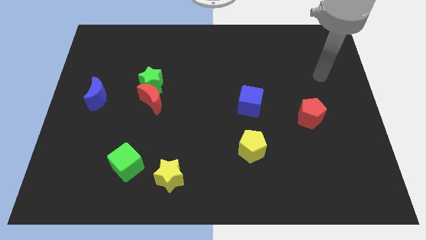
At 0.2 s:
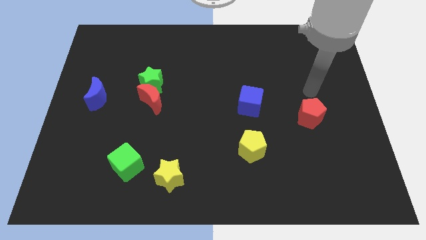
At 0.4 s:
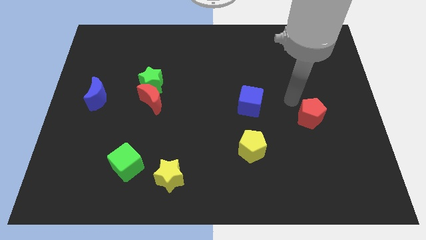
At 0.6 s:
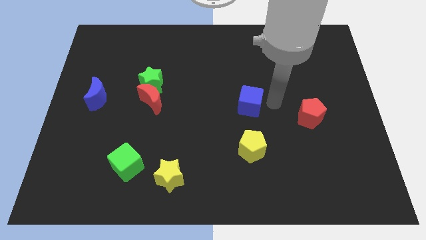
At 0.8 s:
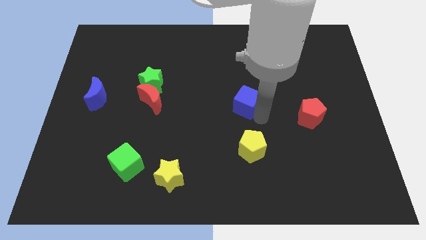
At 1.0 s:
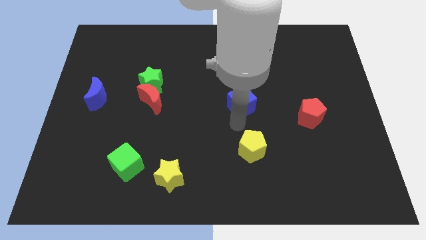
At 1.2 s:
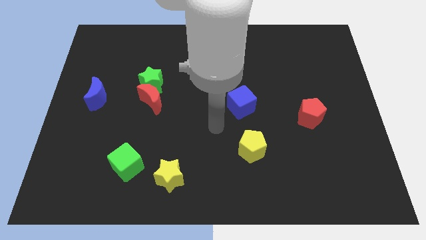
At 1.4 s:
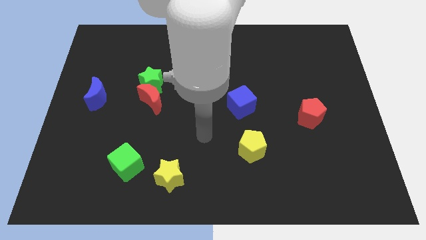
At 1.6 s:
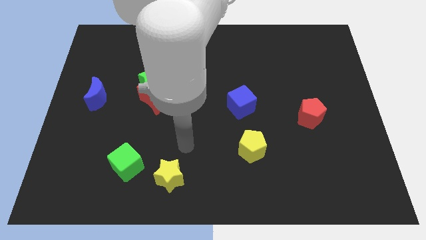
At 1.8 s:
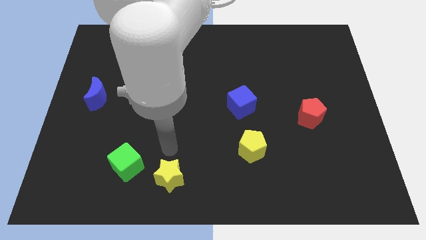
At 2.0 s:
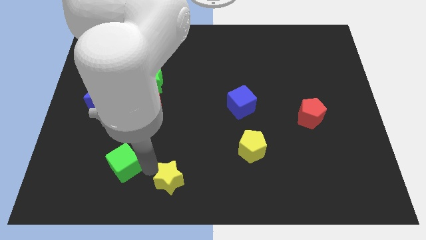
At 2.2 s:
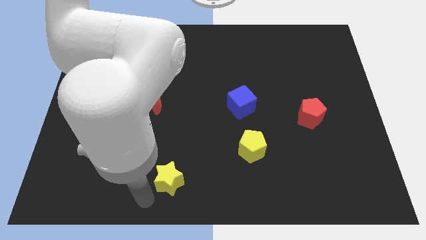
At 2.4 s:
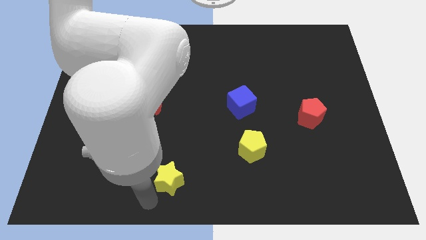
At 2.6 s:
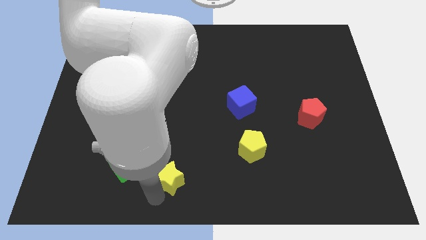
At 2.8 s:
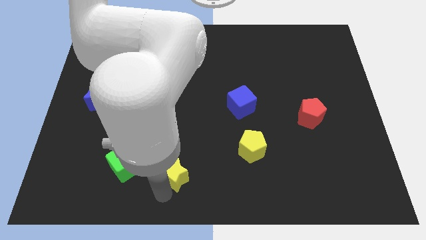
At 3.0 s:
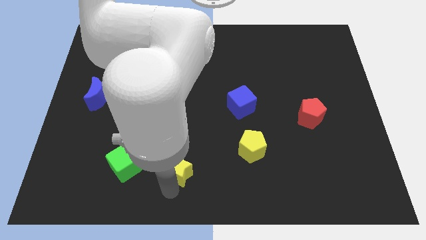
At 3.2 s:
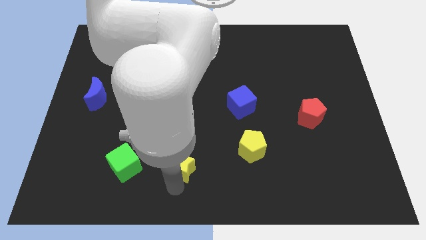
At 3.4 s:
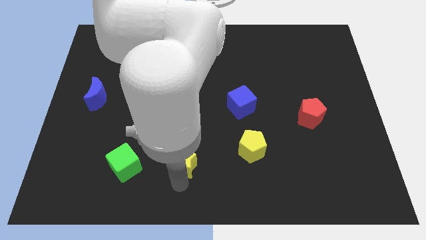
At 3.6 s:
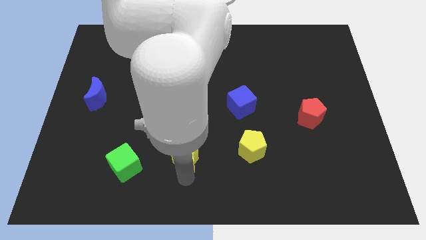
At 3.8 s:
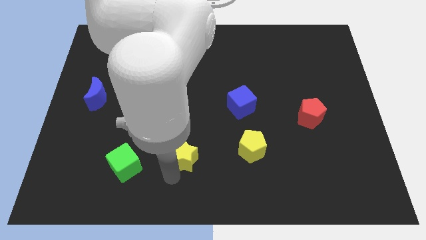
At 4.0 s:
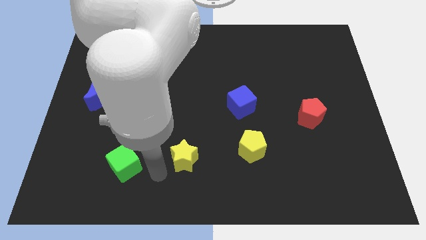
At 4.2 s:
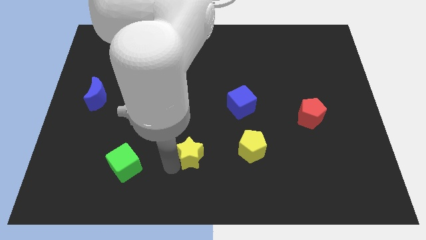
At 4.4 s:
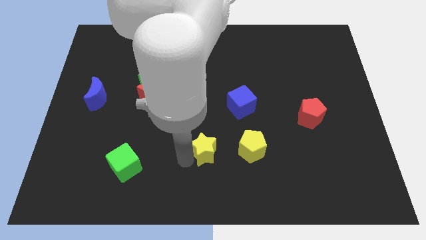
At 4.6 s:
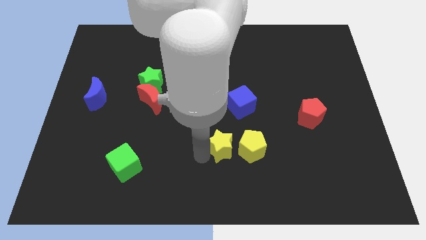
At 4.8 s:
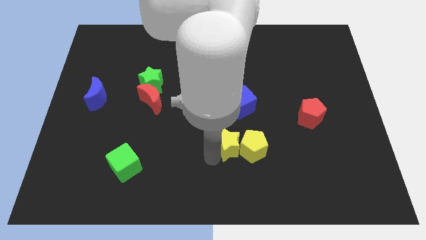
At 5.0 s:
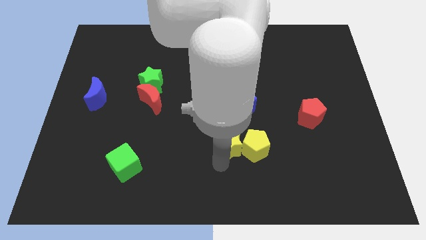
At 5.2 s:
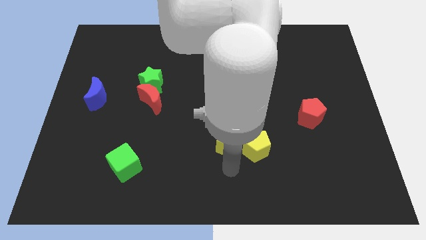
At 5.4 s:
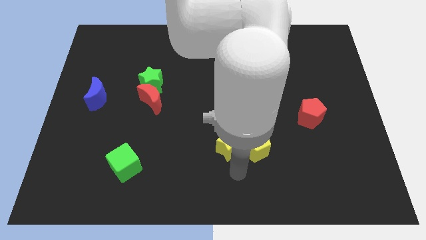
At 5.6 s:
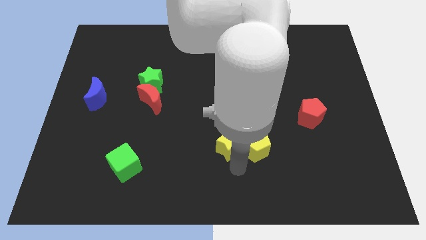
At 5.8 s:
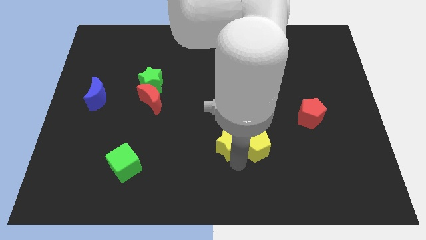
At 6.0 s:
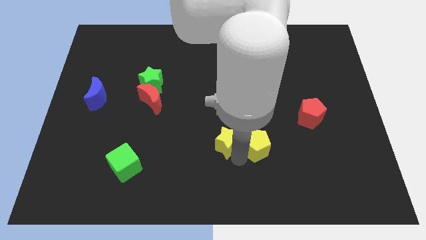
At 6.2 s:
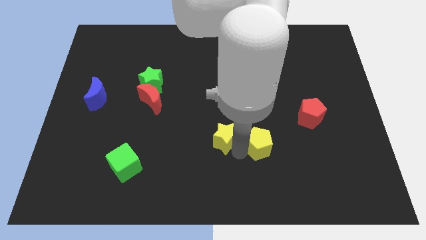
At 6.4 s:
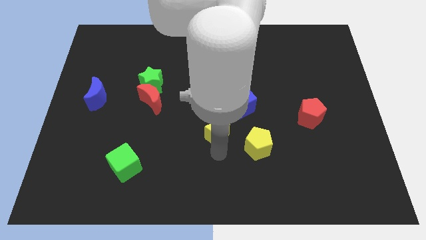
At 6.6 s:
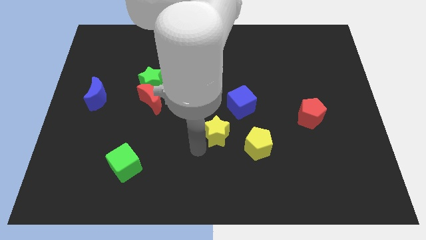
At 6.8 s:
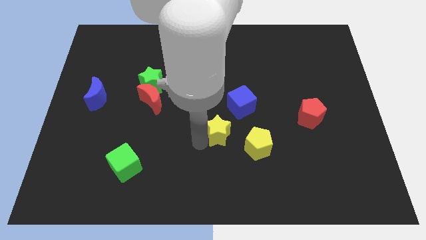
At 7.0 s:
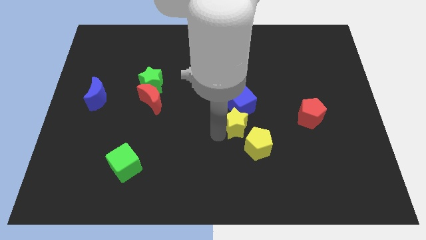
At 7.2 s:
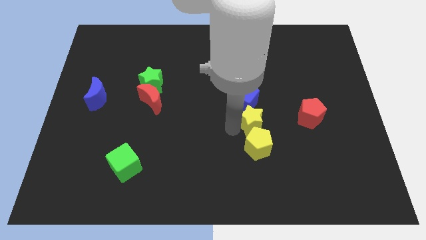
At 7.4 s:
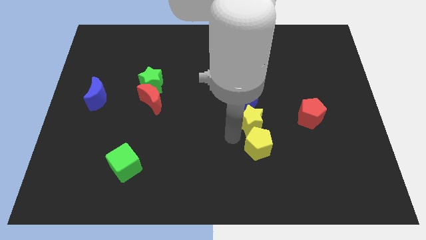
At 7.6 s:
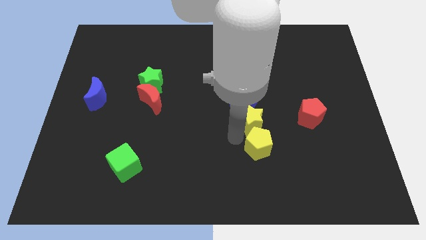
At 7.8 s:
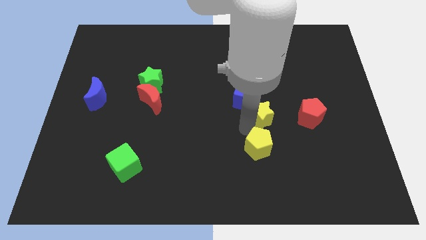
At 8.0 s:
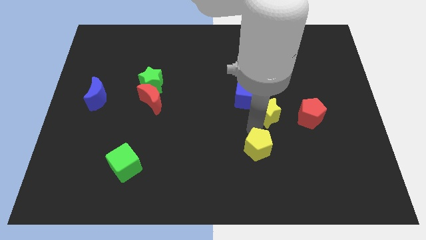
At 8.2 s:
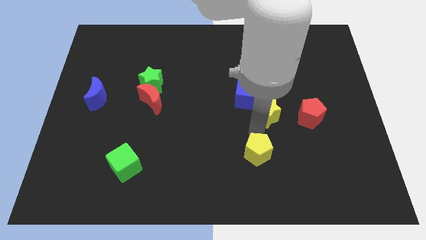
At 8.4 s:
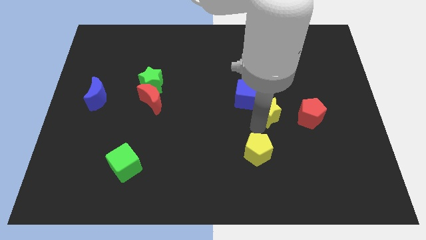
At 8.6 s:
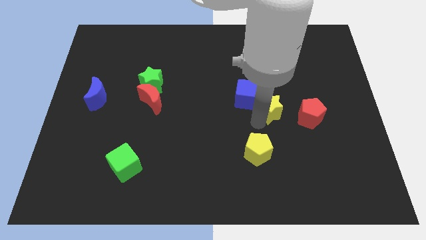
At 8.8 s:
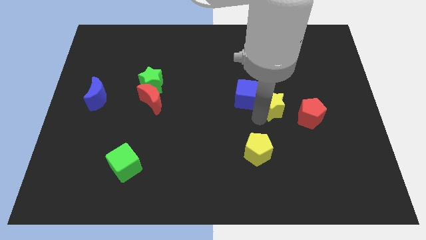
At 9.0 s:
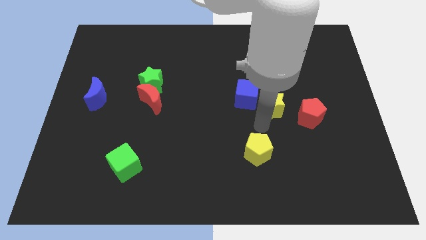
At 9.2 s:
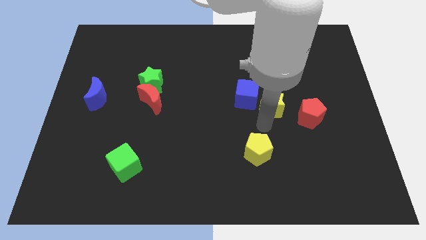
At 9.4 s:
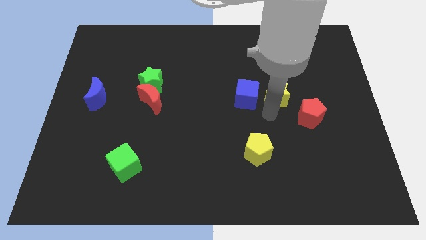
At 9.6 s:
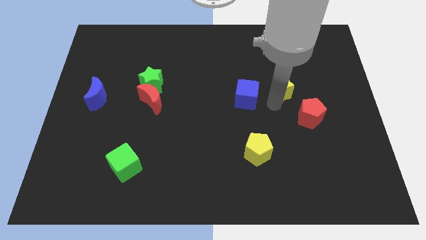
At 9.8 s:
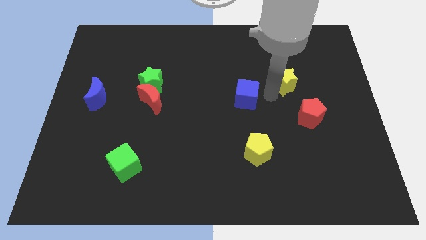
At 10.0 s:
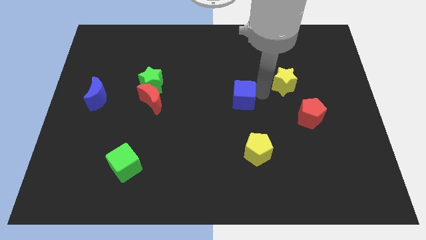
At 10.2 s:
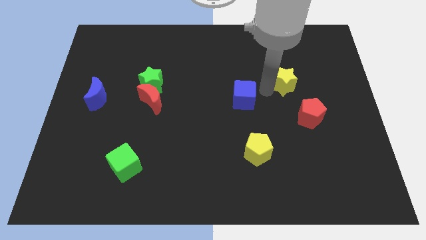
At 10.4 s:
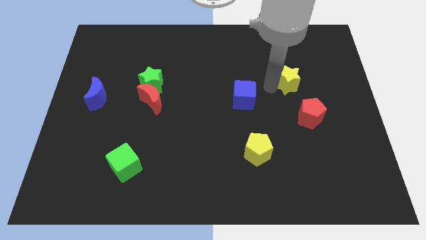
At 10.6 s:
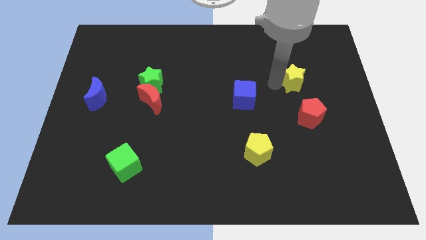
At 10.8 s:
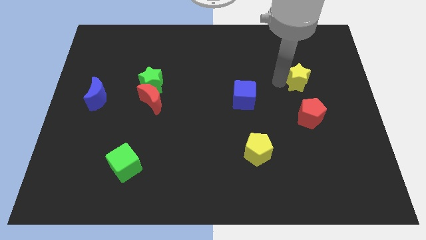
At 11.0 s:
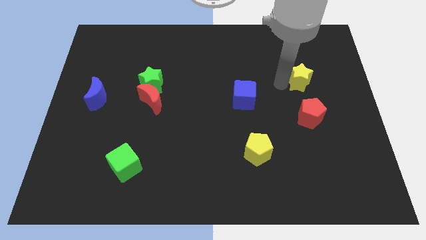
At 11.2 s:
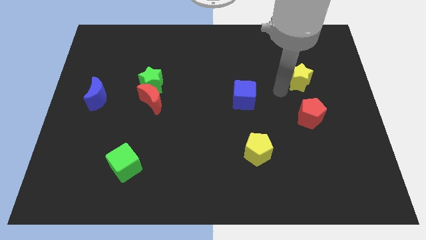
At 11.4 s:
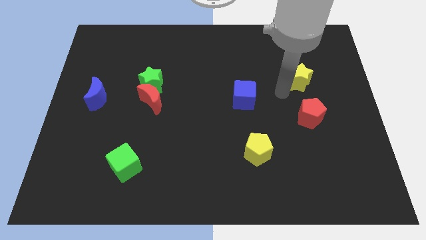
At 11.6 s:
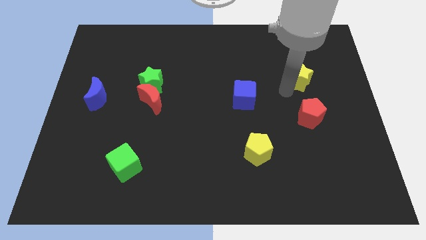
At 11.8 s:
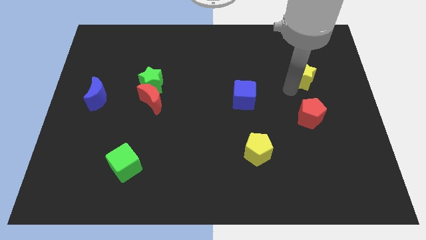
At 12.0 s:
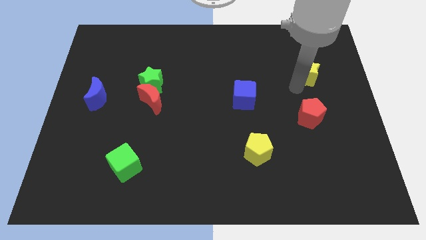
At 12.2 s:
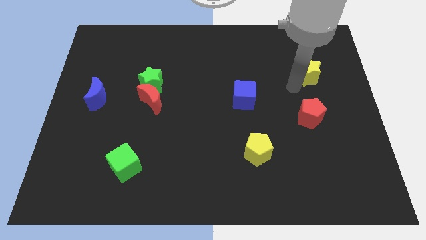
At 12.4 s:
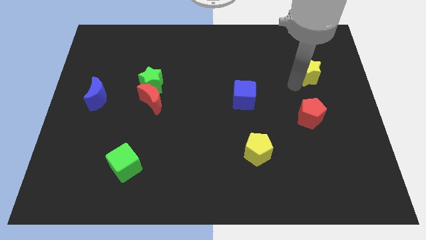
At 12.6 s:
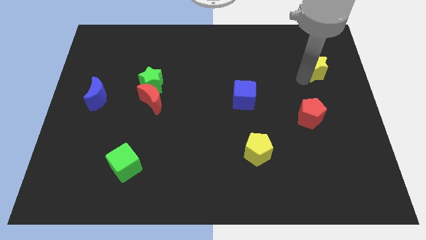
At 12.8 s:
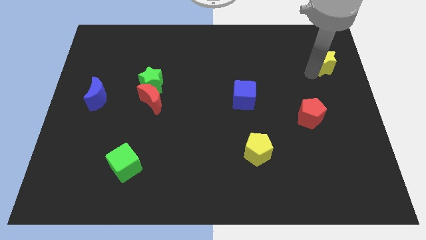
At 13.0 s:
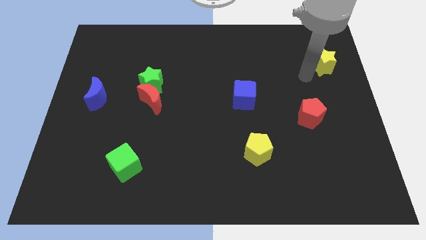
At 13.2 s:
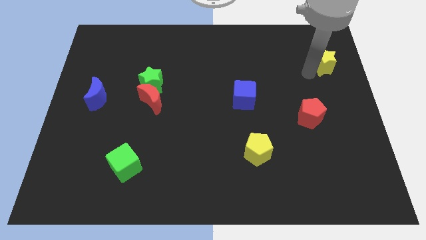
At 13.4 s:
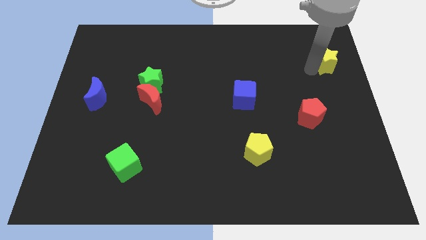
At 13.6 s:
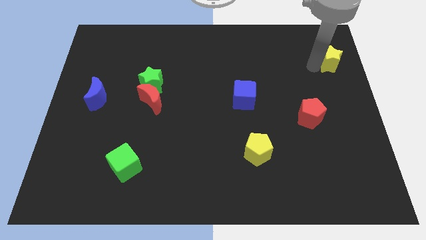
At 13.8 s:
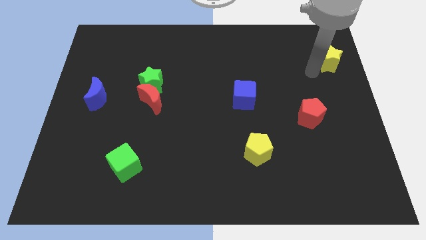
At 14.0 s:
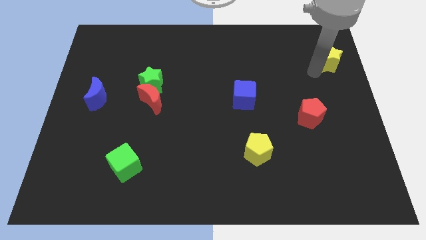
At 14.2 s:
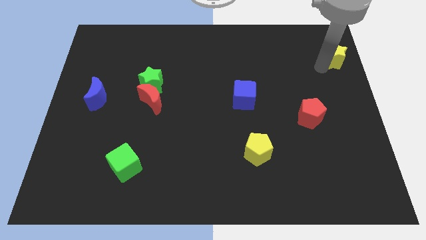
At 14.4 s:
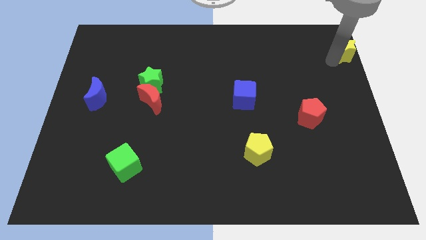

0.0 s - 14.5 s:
slide the yellow star to the top right of the board
